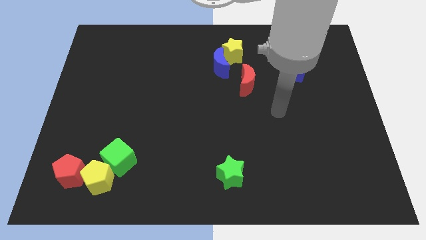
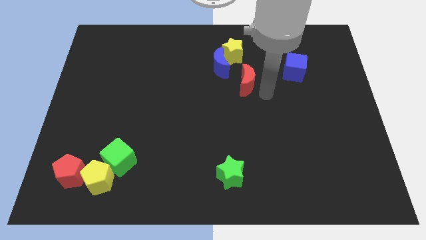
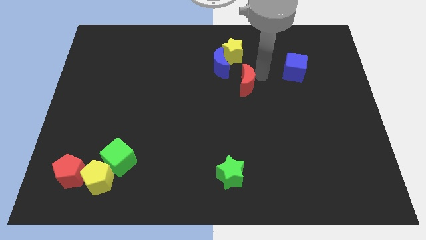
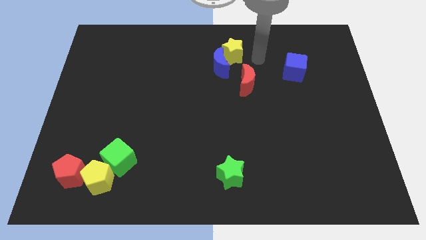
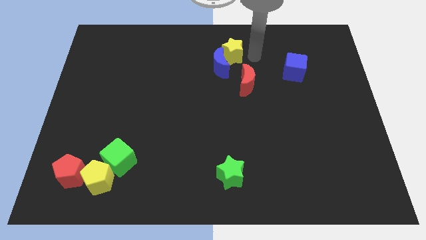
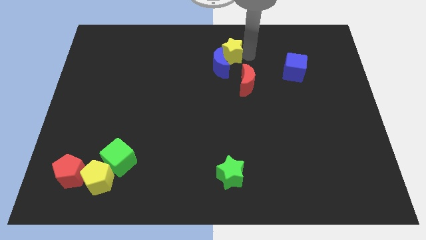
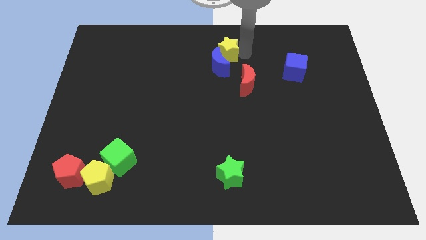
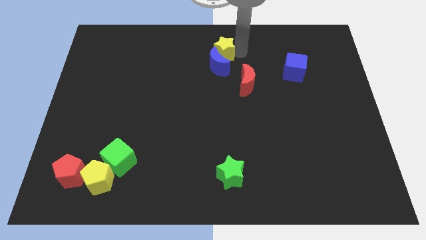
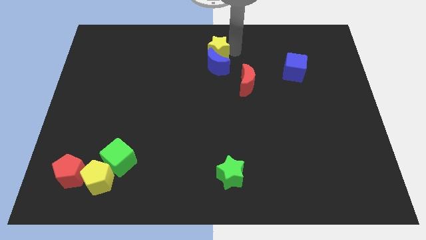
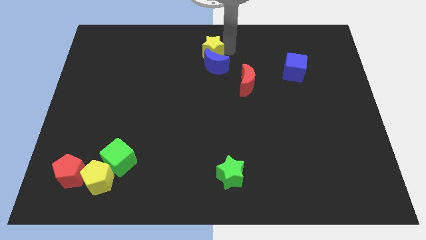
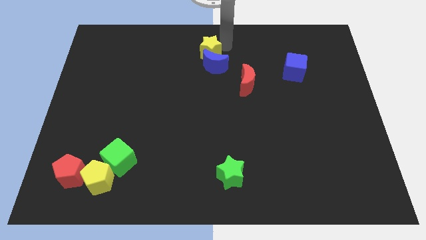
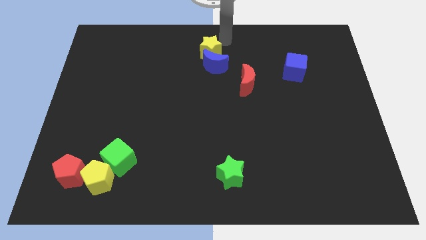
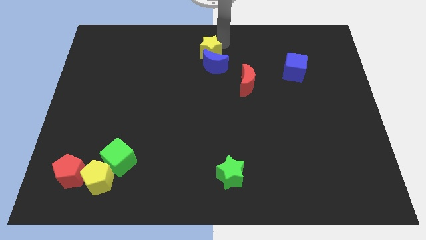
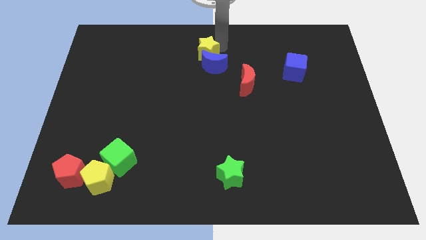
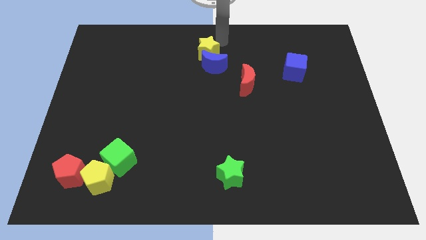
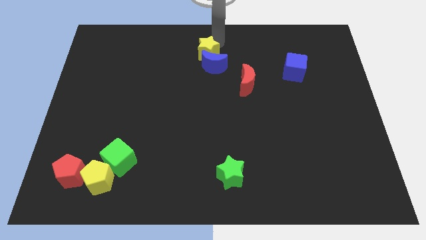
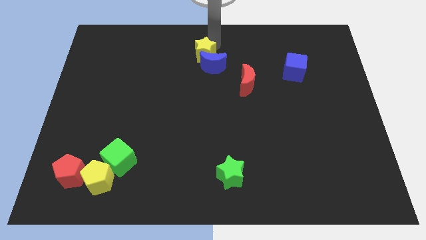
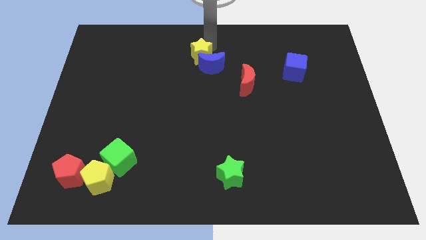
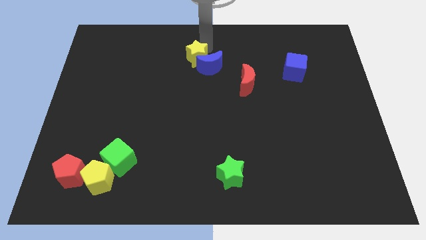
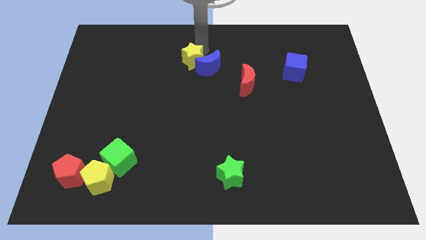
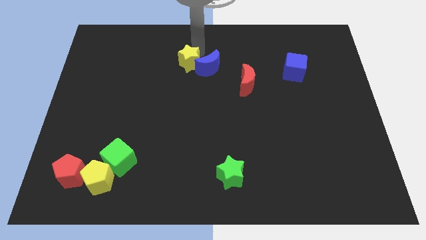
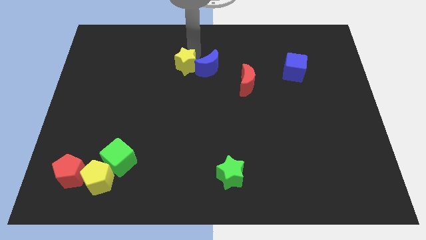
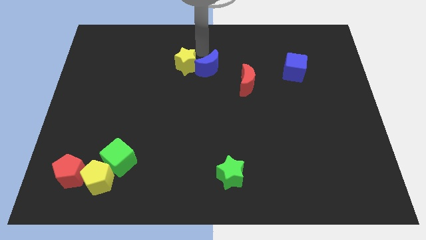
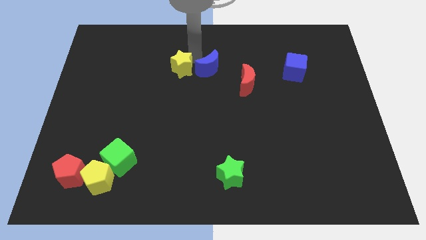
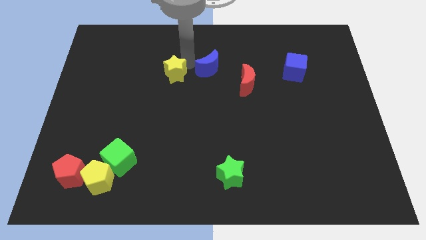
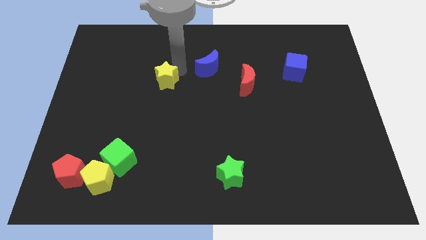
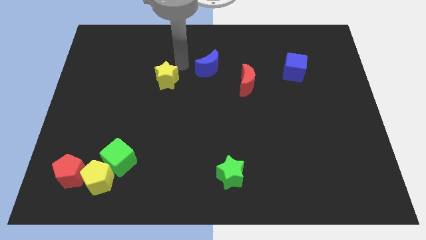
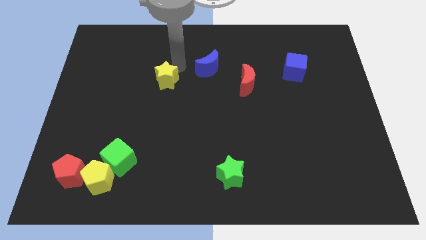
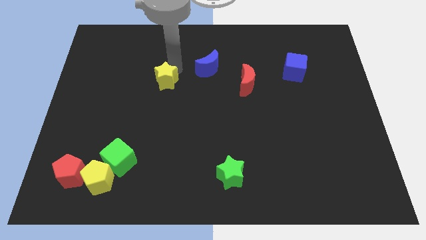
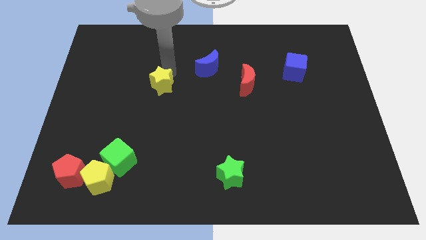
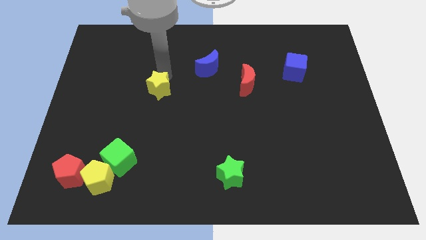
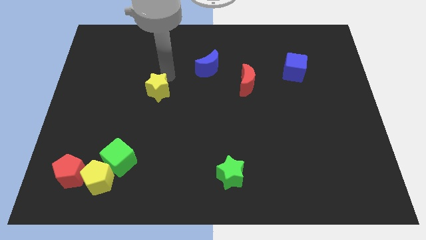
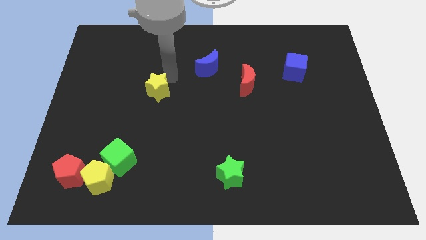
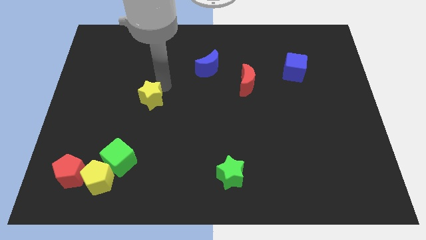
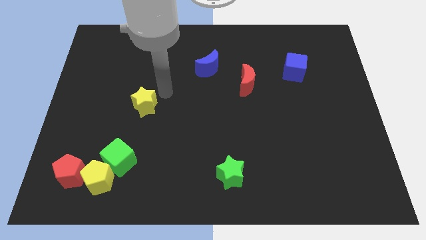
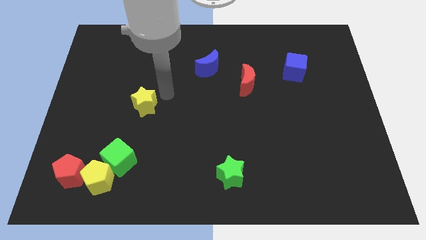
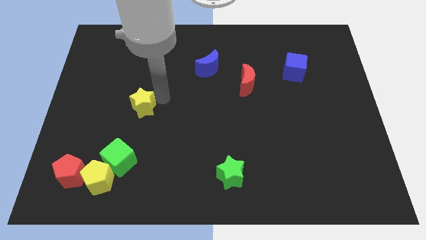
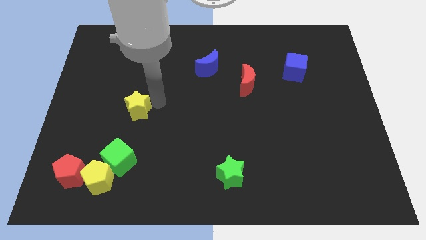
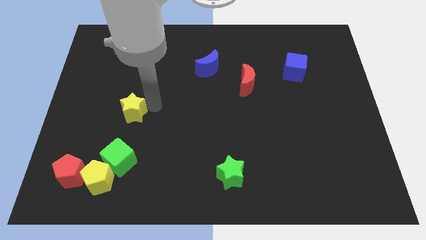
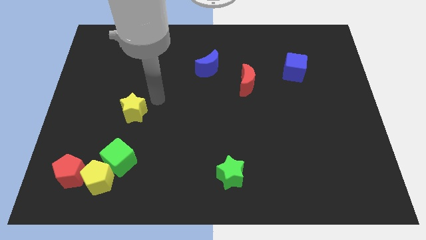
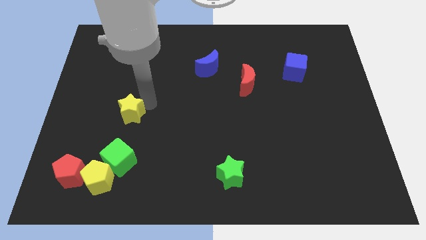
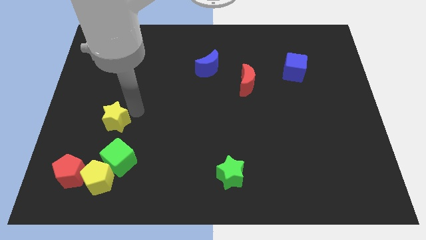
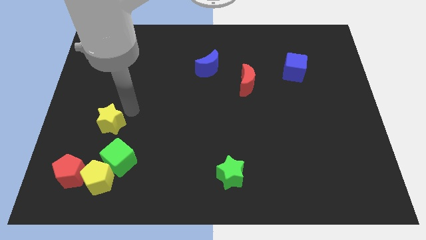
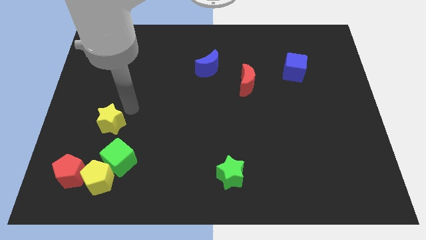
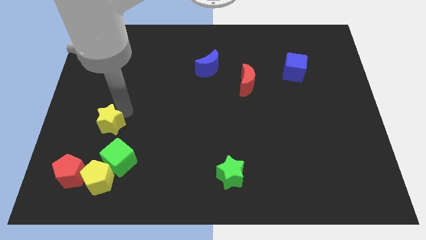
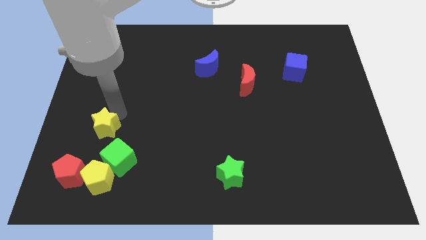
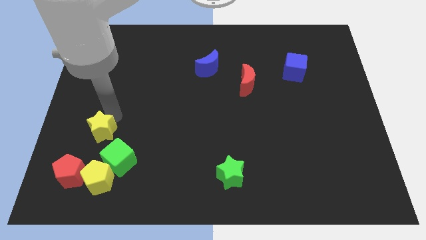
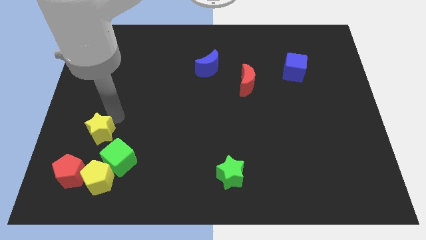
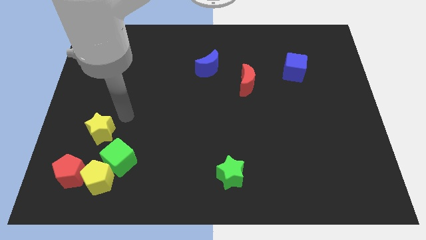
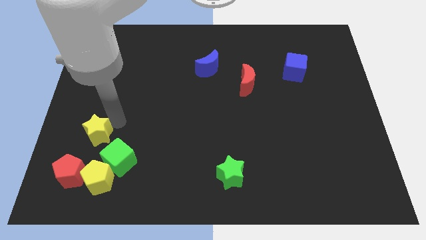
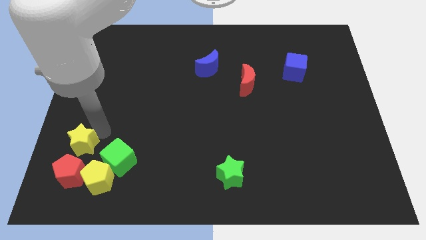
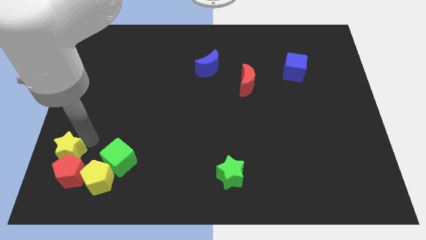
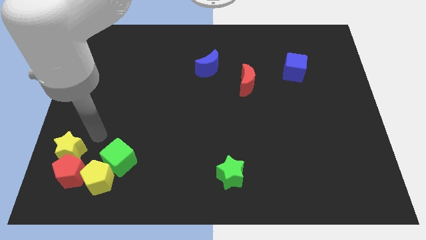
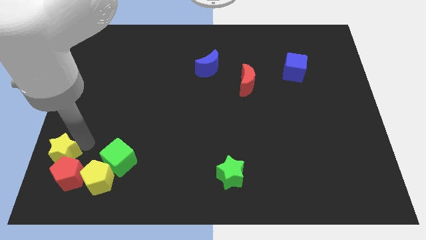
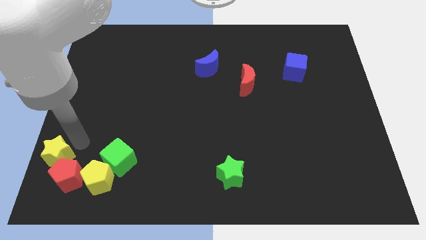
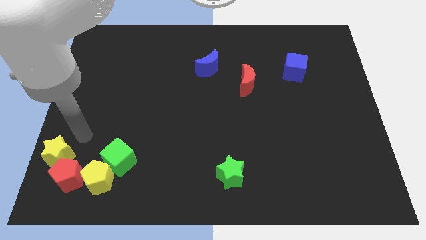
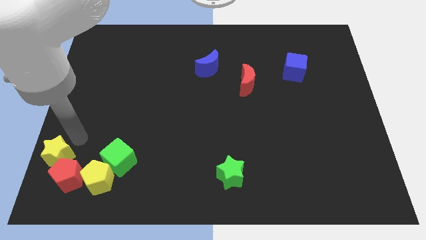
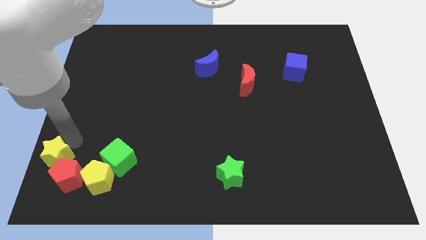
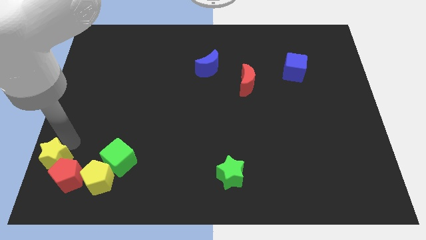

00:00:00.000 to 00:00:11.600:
slide the yellow star to the lower left corner

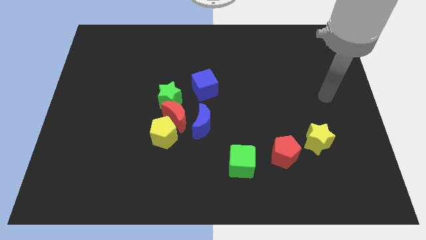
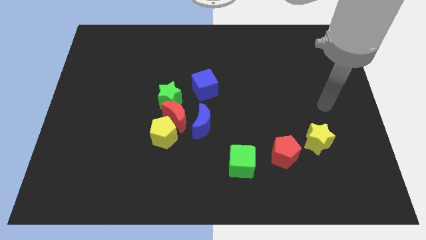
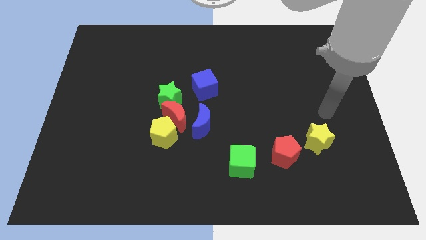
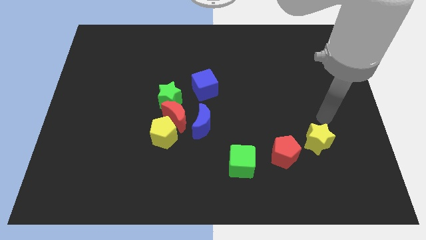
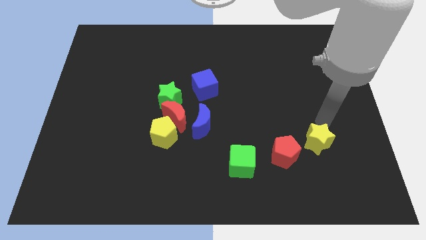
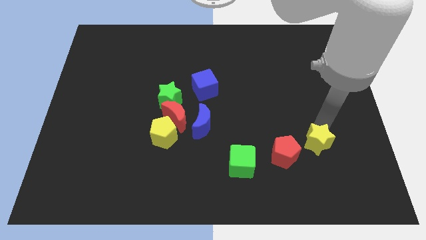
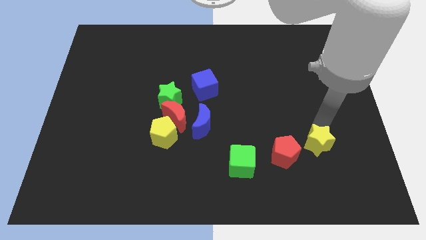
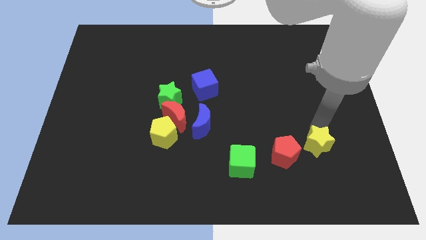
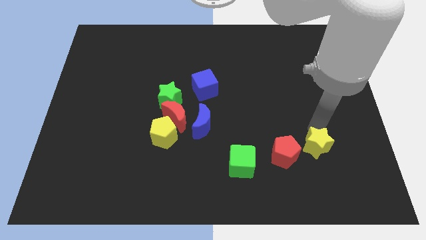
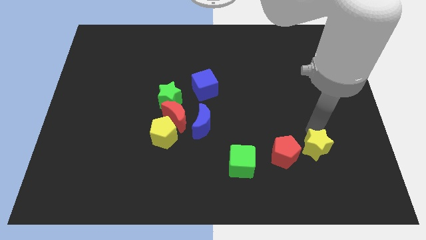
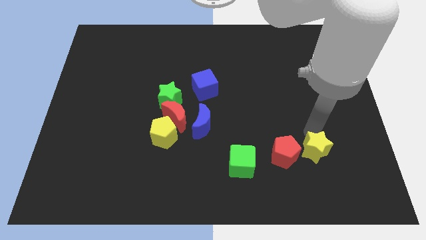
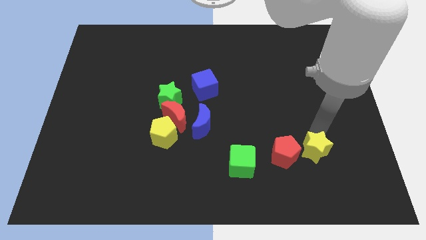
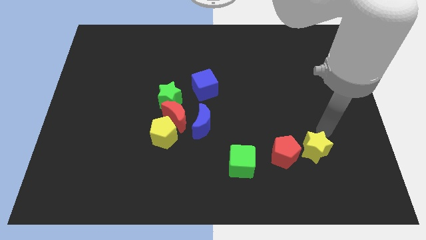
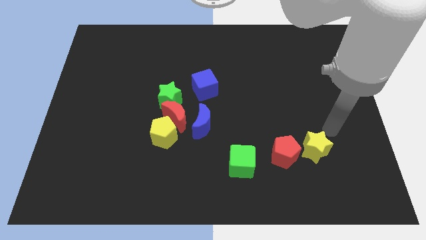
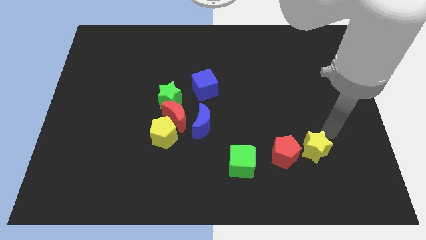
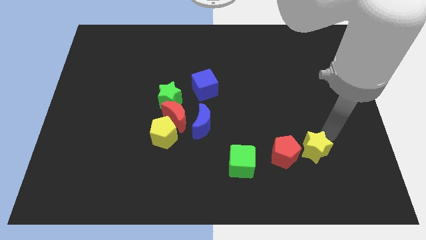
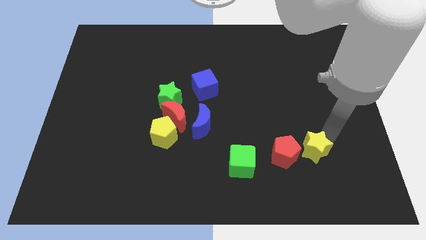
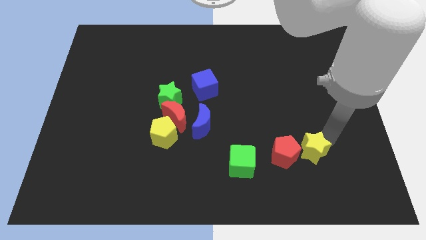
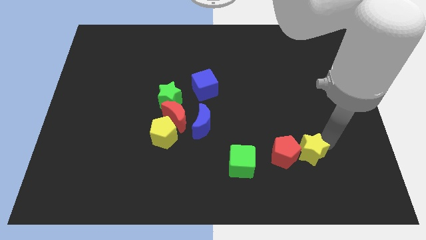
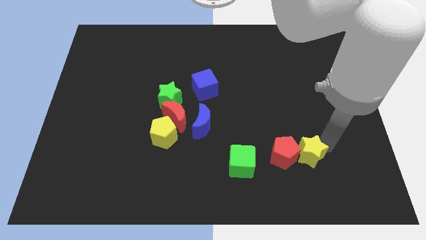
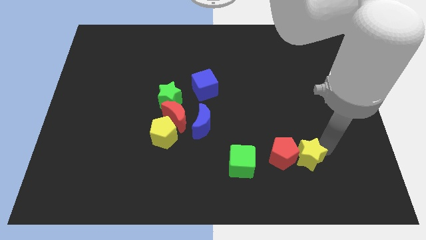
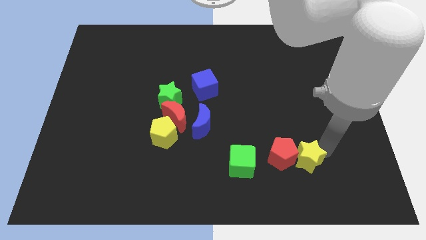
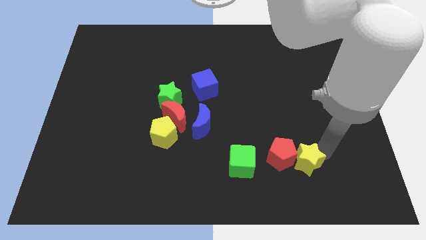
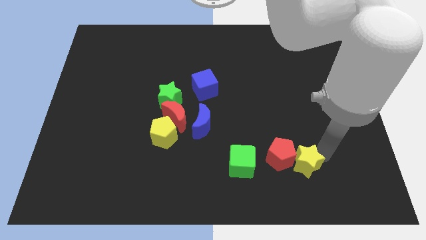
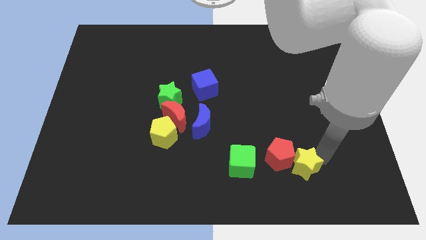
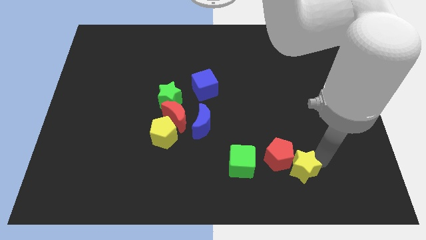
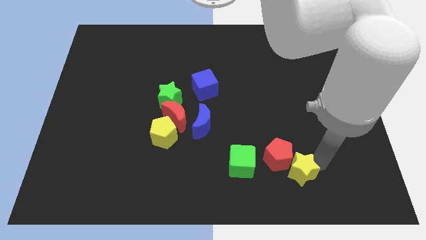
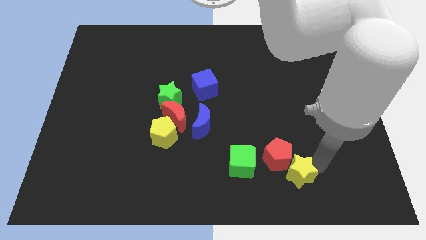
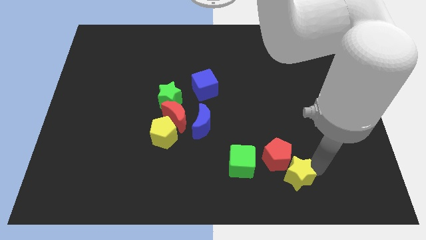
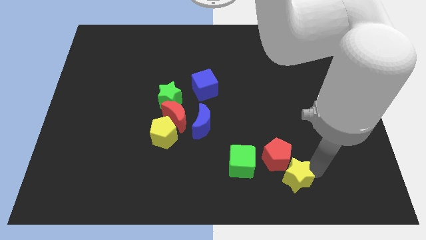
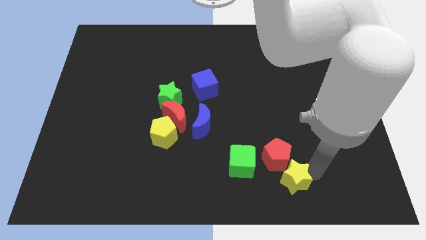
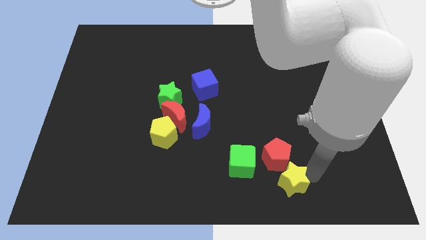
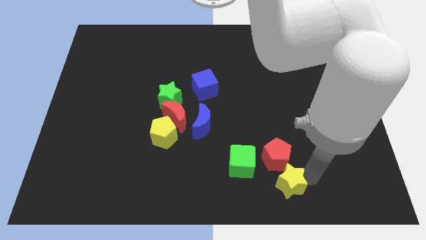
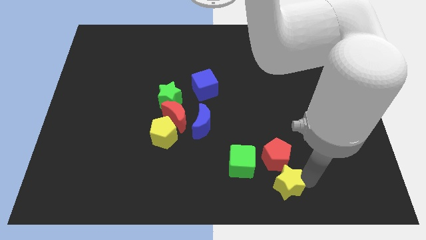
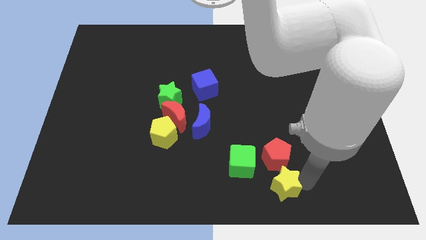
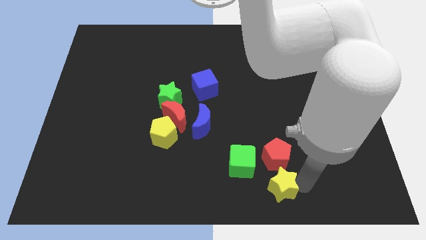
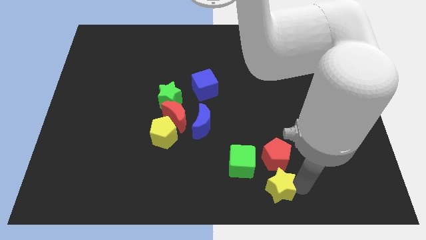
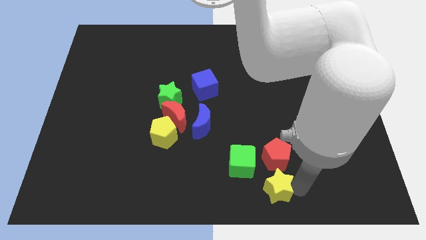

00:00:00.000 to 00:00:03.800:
push the yellow star to the bottom side
